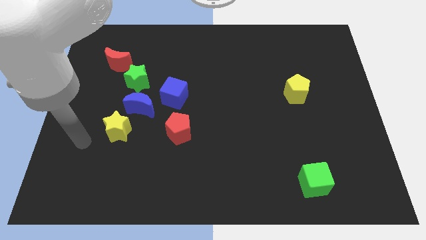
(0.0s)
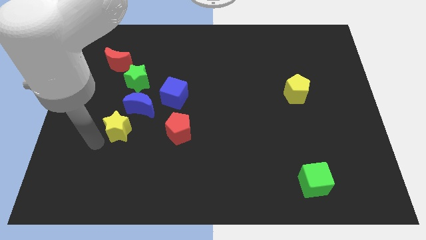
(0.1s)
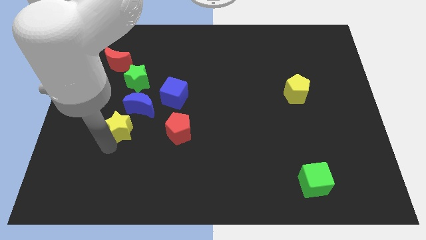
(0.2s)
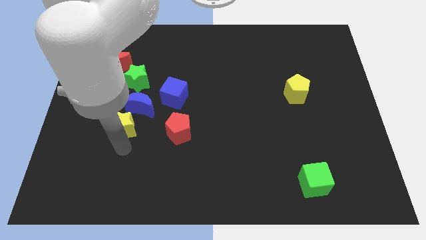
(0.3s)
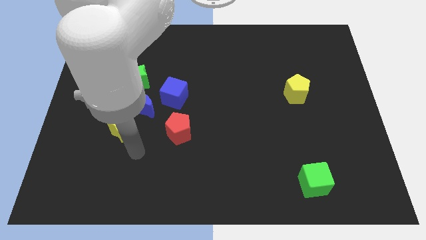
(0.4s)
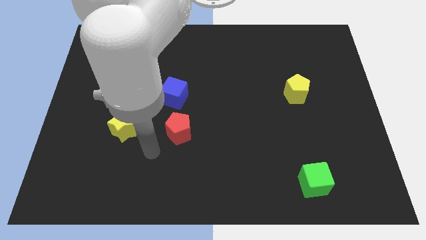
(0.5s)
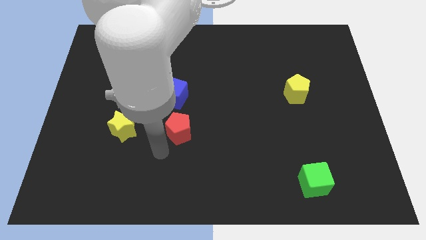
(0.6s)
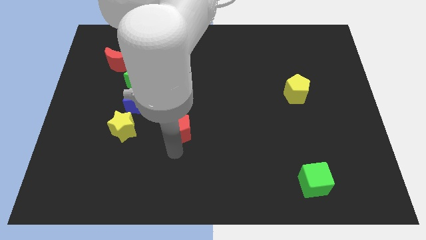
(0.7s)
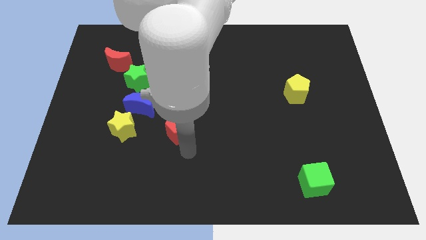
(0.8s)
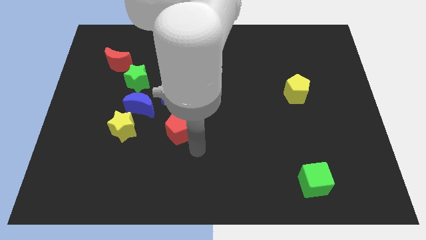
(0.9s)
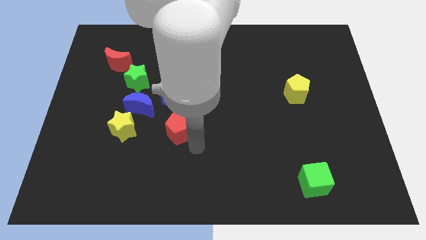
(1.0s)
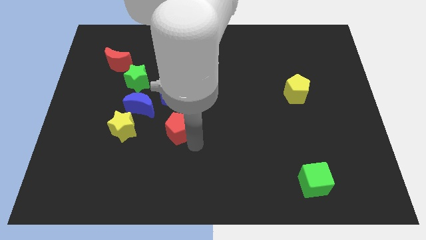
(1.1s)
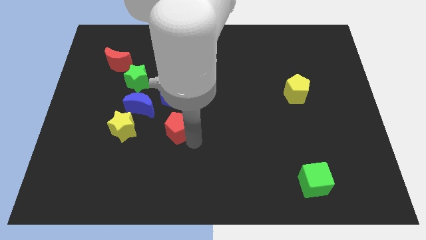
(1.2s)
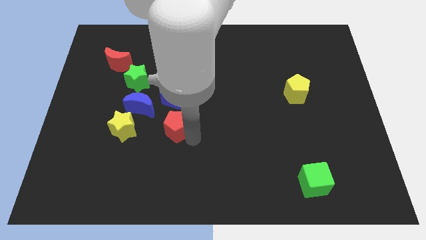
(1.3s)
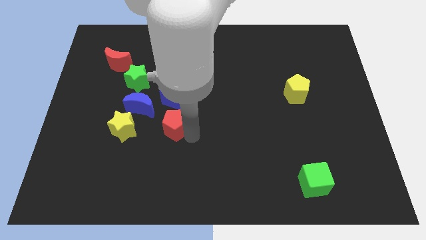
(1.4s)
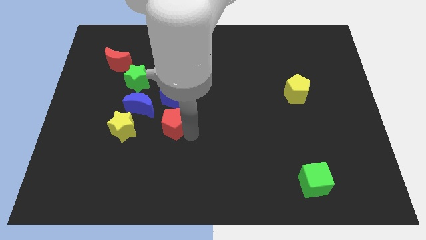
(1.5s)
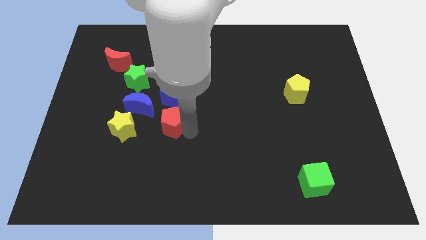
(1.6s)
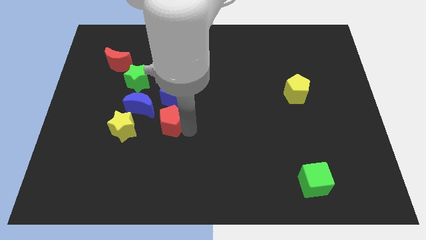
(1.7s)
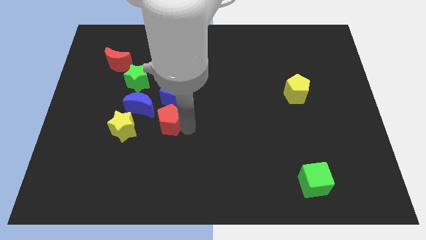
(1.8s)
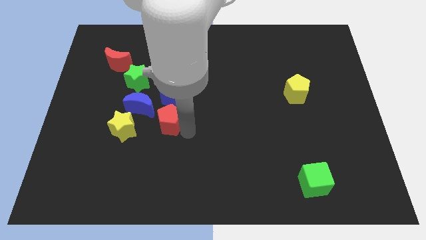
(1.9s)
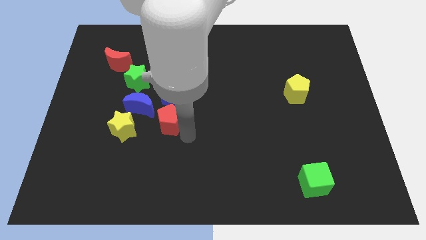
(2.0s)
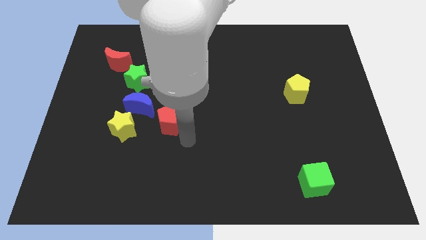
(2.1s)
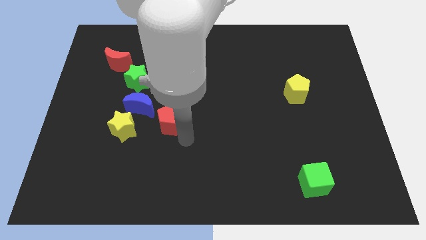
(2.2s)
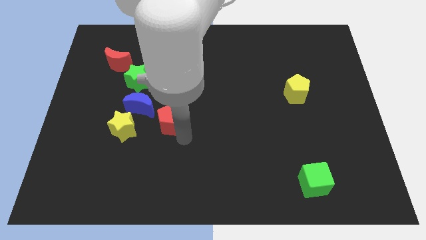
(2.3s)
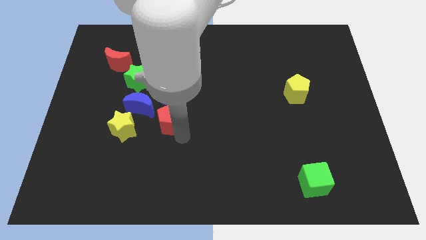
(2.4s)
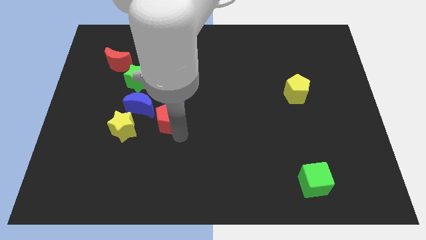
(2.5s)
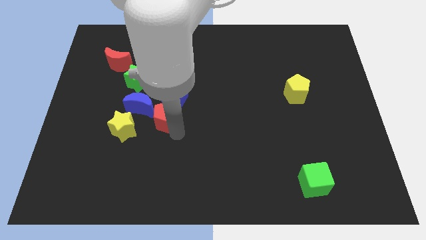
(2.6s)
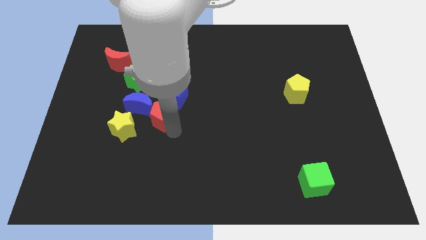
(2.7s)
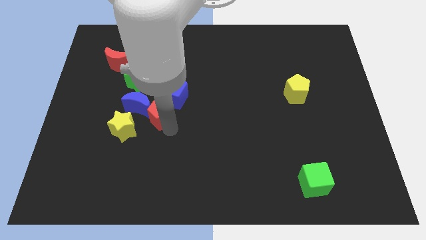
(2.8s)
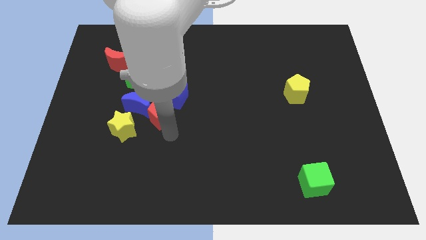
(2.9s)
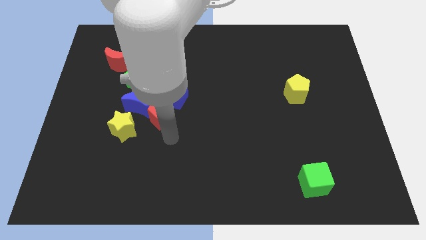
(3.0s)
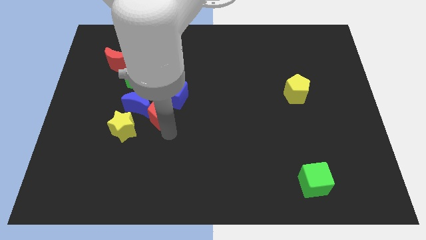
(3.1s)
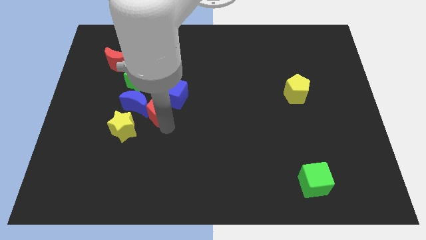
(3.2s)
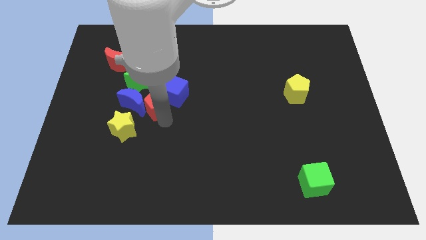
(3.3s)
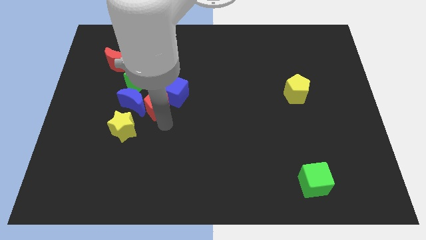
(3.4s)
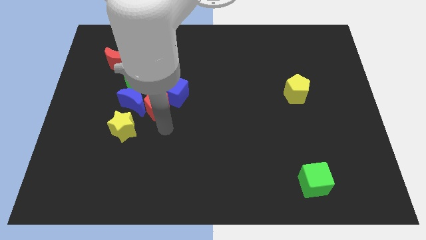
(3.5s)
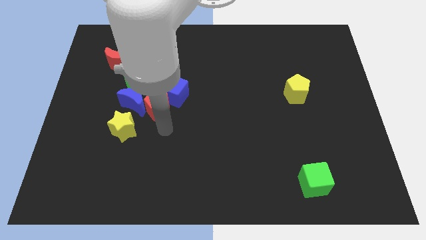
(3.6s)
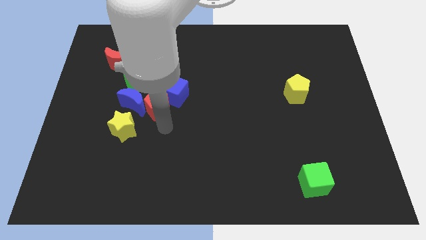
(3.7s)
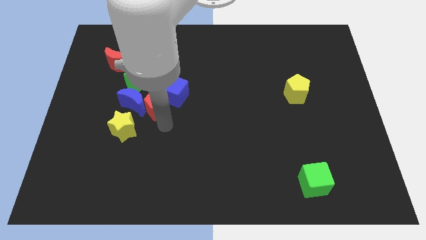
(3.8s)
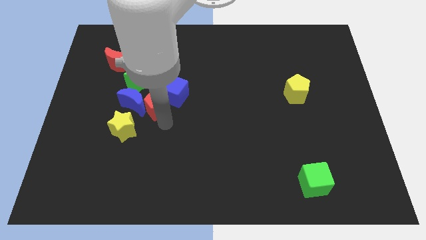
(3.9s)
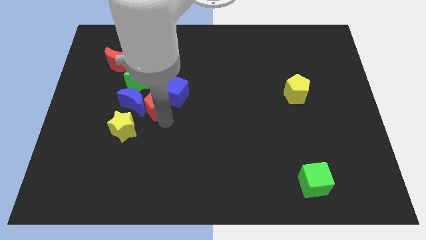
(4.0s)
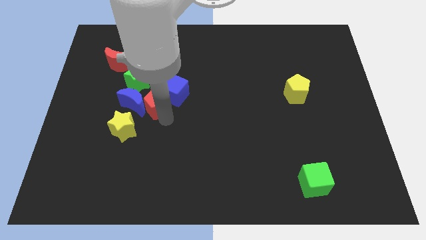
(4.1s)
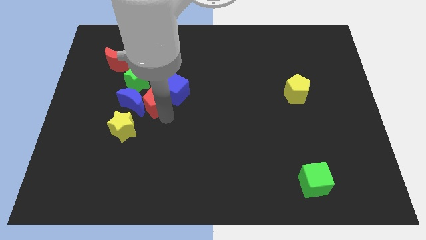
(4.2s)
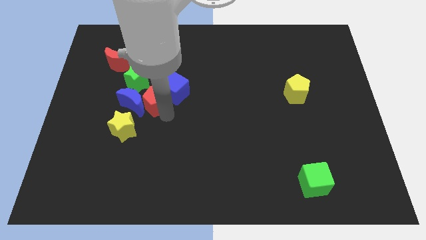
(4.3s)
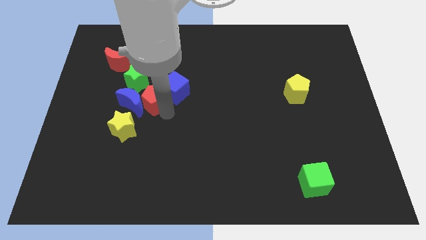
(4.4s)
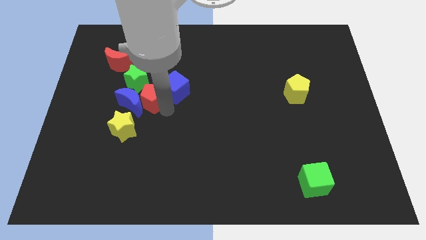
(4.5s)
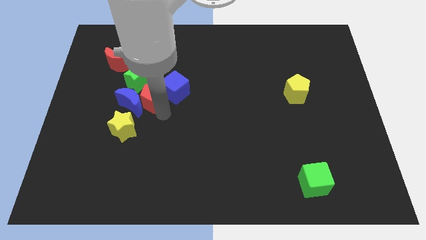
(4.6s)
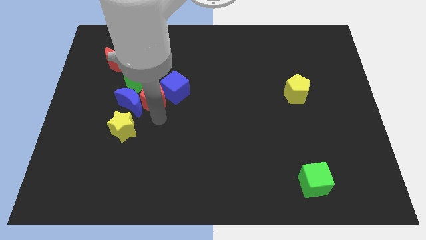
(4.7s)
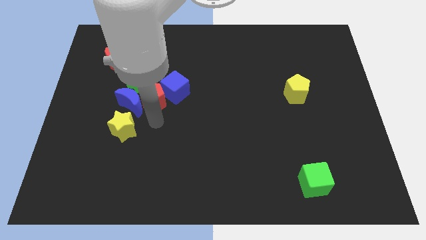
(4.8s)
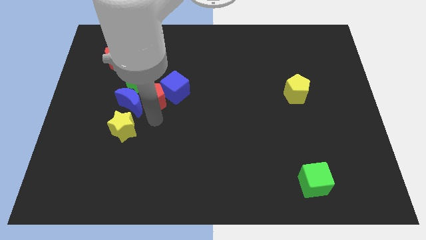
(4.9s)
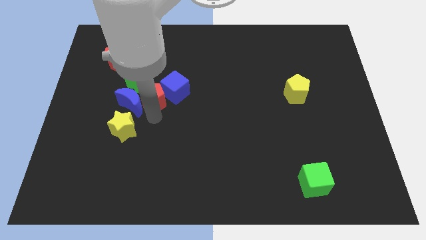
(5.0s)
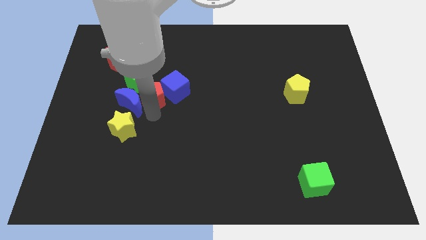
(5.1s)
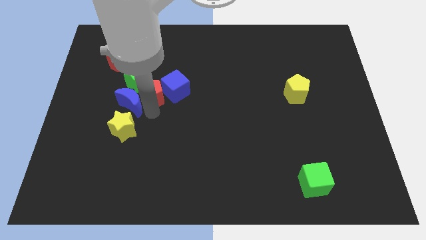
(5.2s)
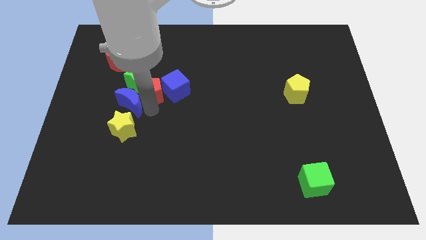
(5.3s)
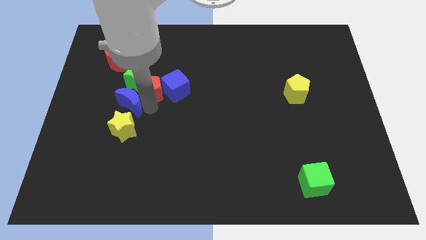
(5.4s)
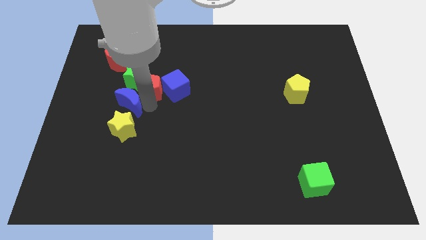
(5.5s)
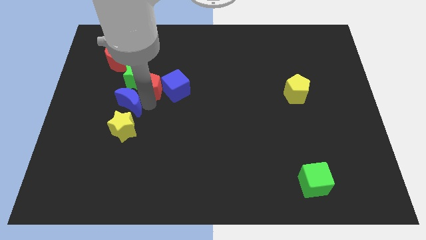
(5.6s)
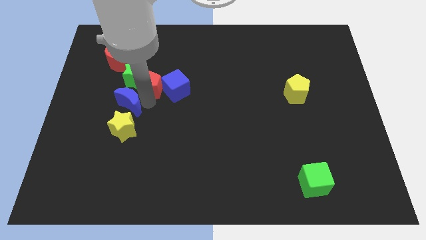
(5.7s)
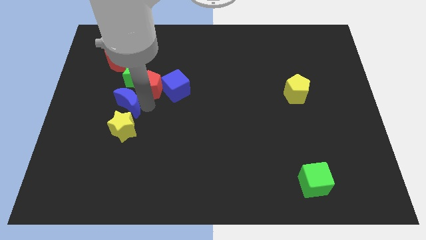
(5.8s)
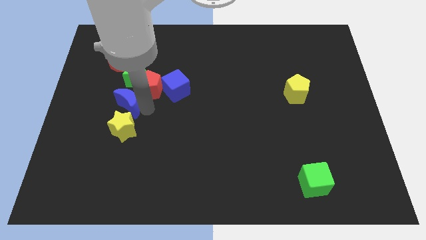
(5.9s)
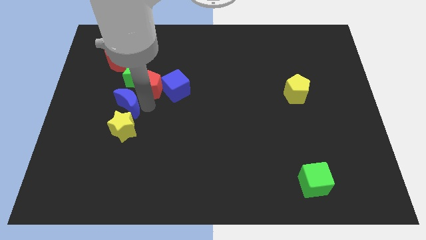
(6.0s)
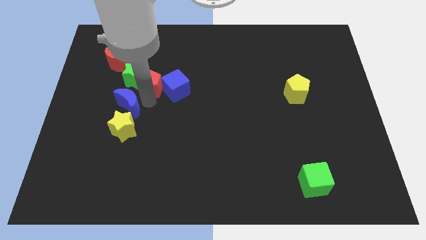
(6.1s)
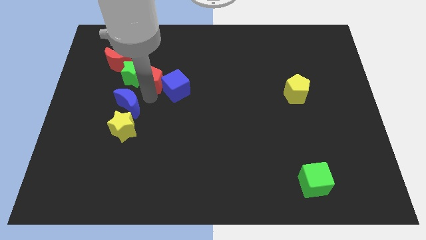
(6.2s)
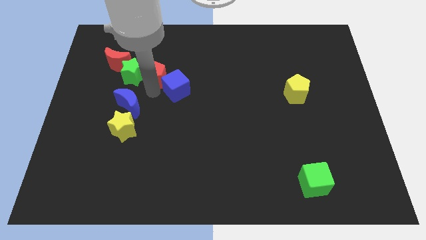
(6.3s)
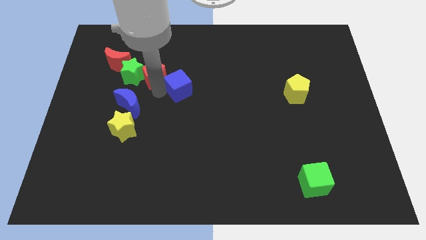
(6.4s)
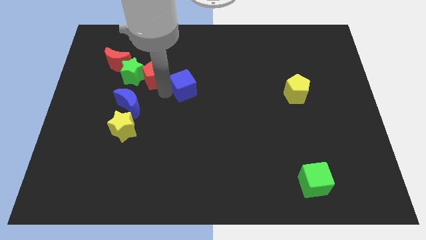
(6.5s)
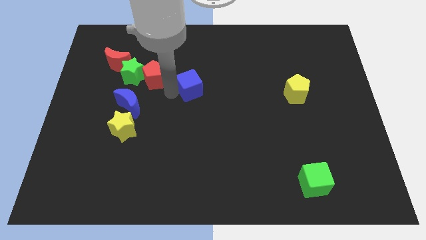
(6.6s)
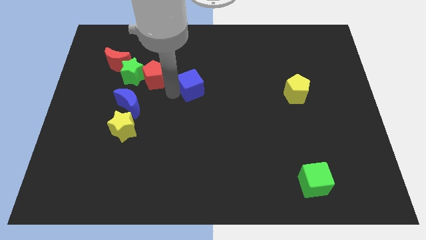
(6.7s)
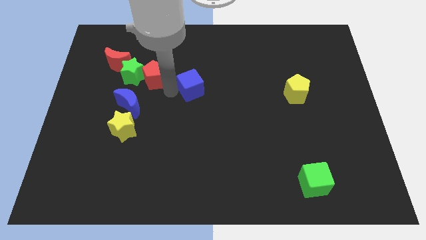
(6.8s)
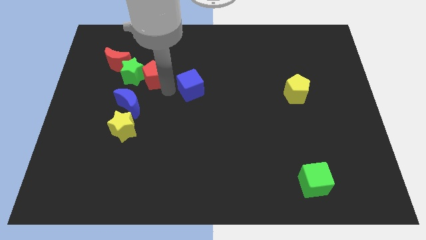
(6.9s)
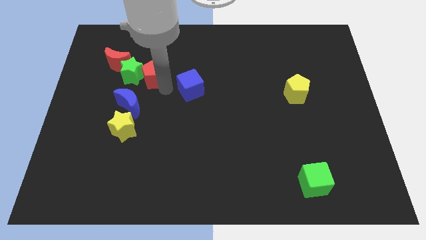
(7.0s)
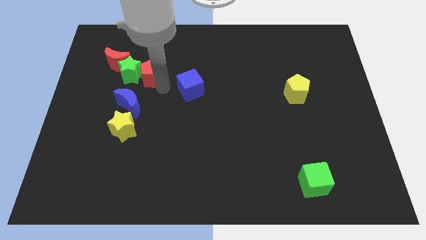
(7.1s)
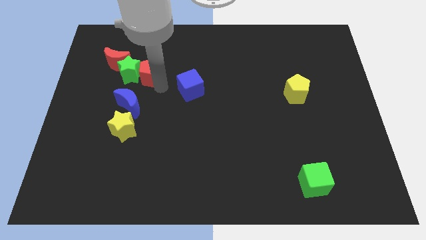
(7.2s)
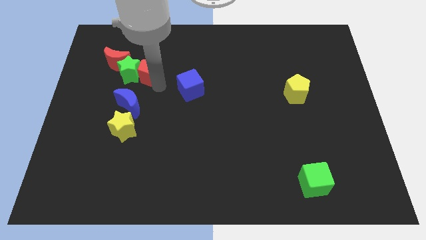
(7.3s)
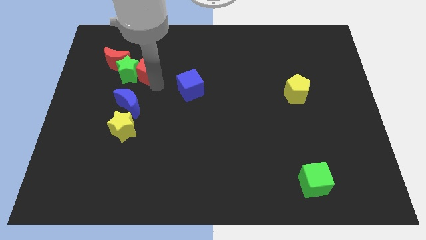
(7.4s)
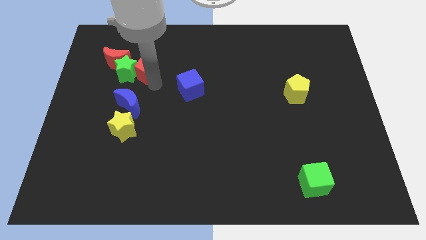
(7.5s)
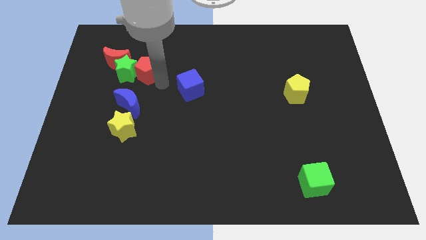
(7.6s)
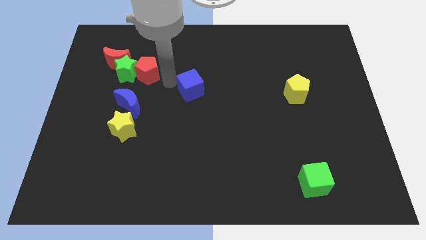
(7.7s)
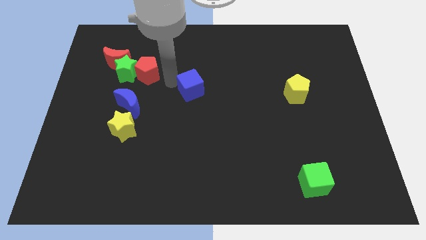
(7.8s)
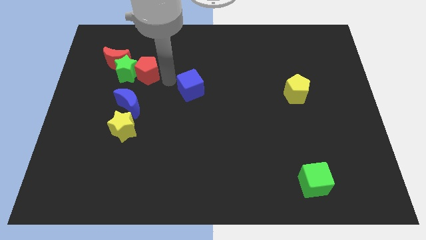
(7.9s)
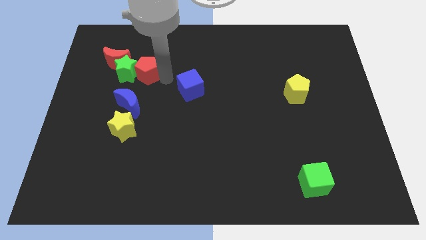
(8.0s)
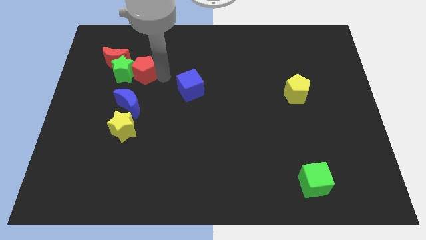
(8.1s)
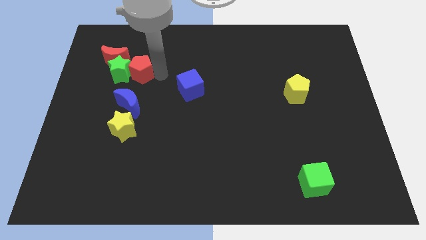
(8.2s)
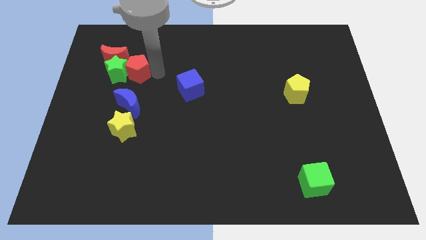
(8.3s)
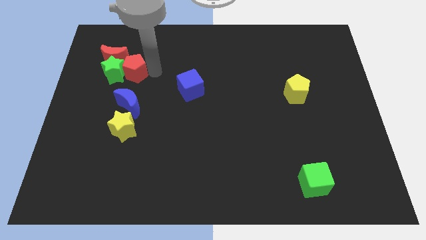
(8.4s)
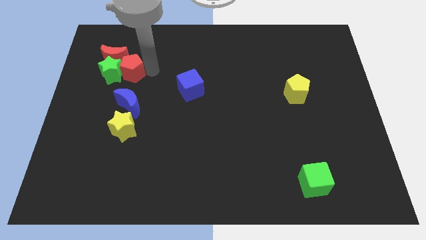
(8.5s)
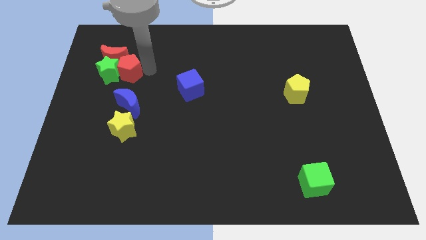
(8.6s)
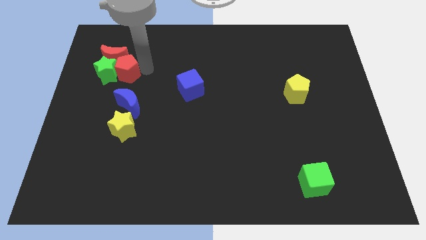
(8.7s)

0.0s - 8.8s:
move the red pentagon next to the red moon
